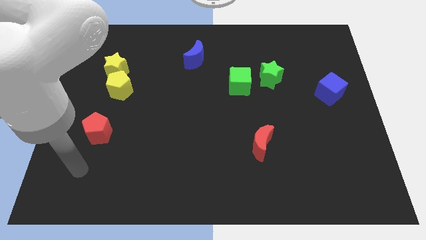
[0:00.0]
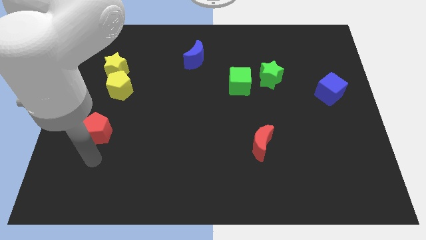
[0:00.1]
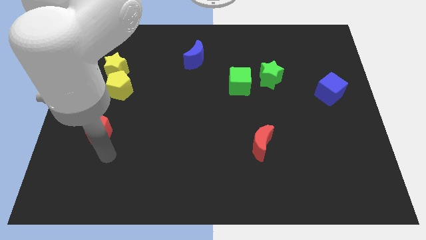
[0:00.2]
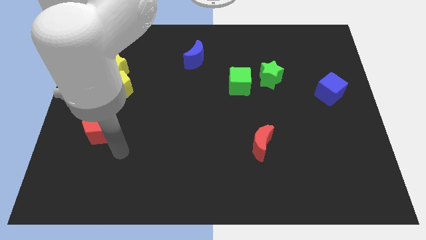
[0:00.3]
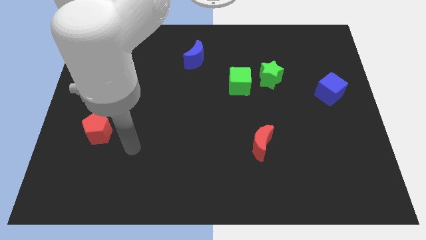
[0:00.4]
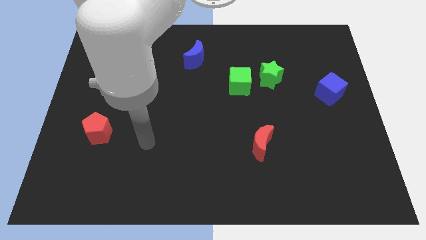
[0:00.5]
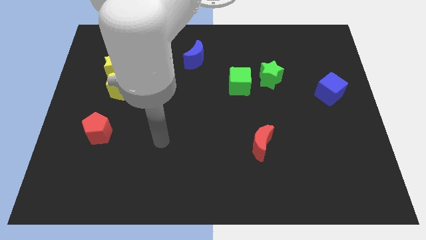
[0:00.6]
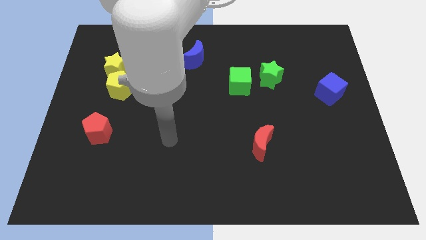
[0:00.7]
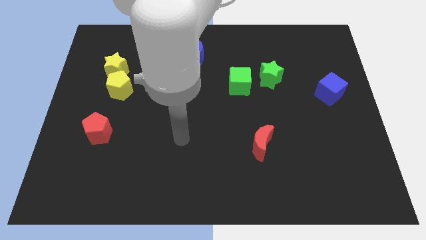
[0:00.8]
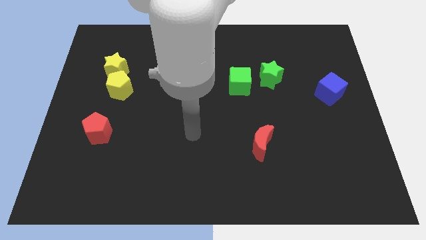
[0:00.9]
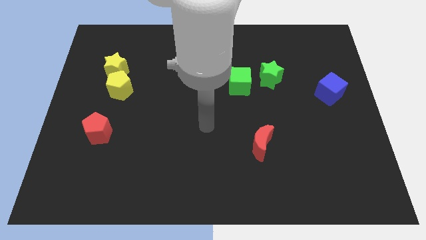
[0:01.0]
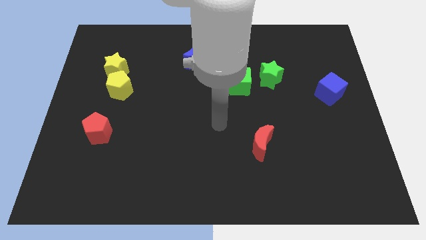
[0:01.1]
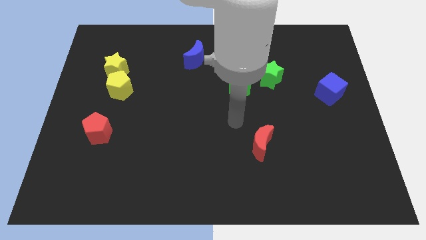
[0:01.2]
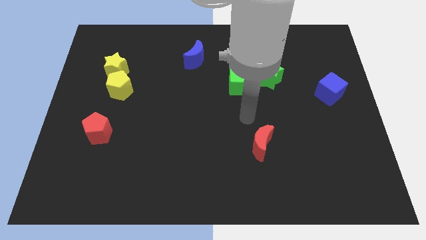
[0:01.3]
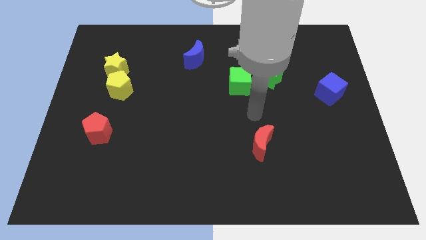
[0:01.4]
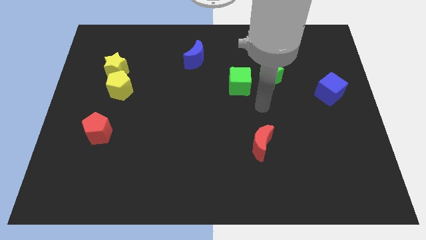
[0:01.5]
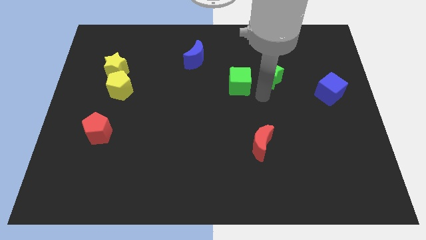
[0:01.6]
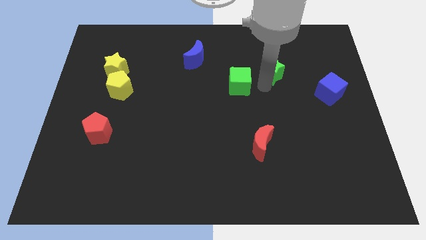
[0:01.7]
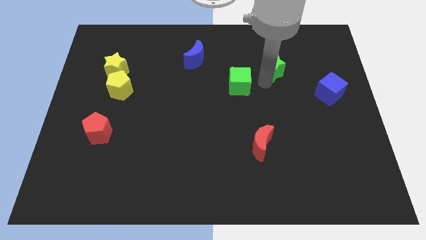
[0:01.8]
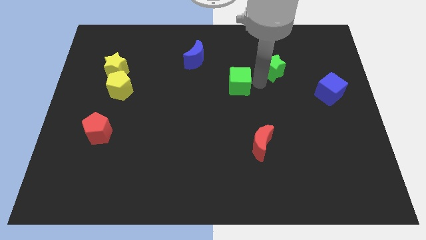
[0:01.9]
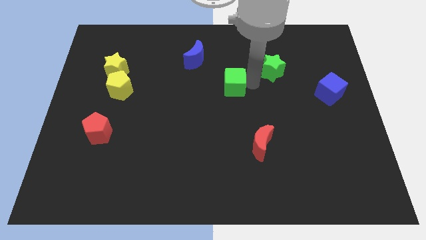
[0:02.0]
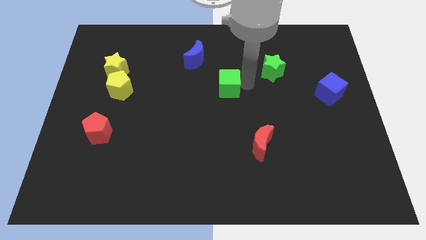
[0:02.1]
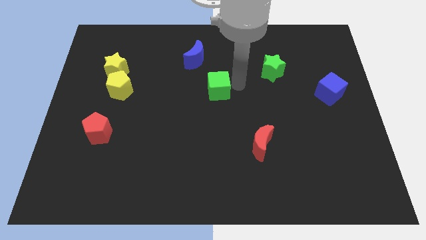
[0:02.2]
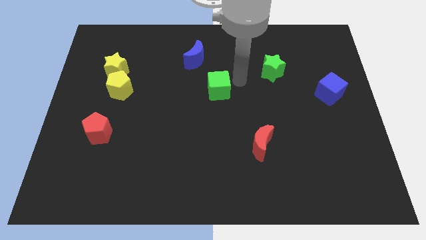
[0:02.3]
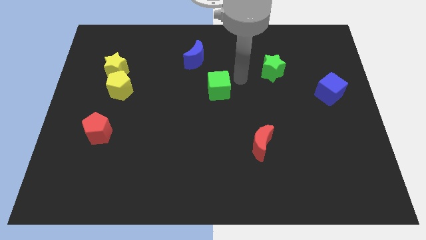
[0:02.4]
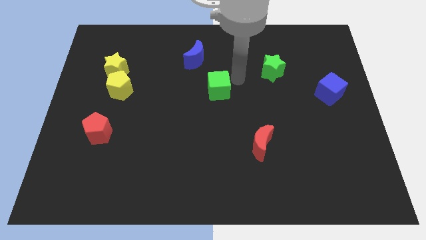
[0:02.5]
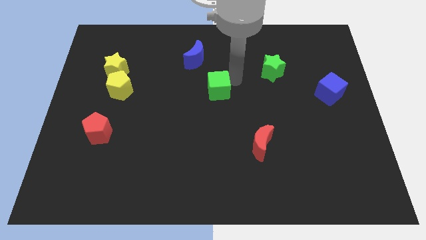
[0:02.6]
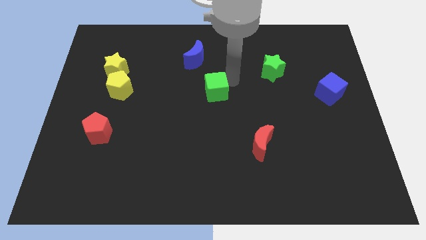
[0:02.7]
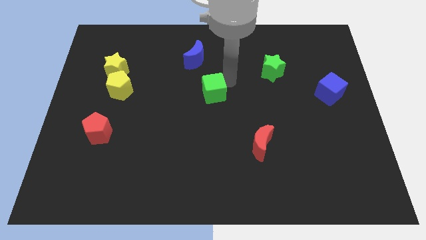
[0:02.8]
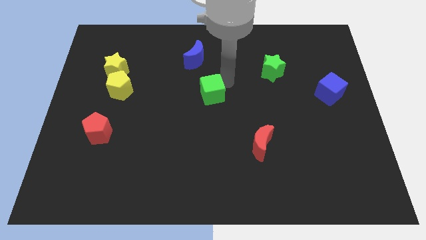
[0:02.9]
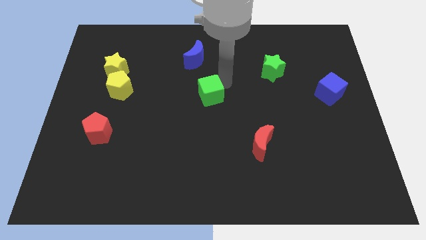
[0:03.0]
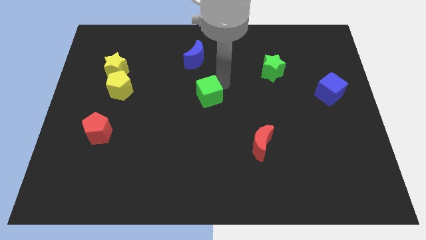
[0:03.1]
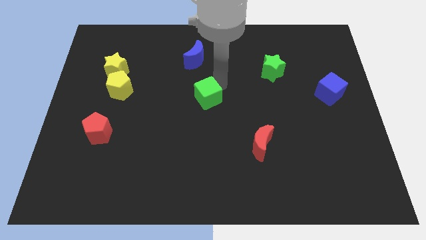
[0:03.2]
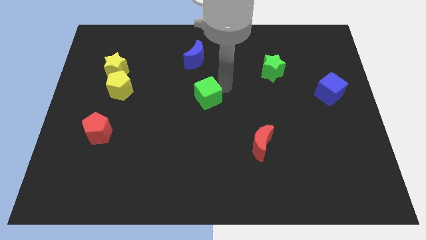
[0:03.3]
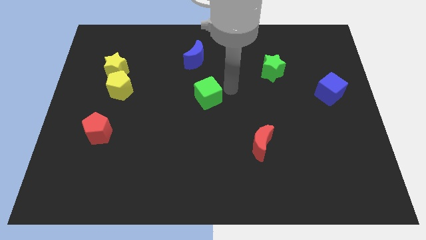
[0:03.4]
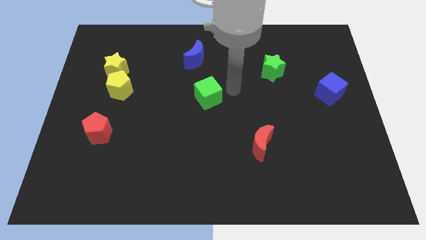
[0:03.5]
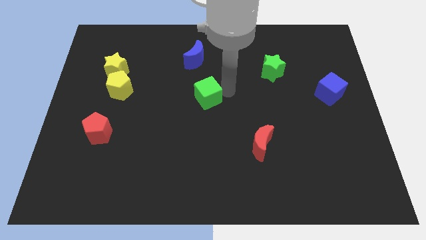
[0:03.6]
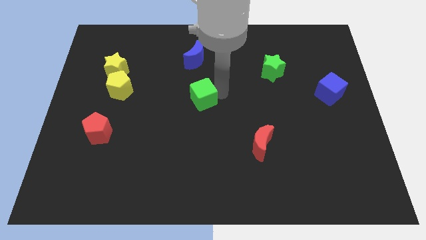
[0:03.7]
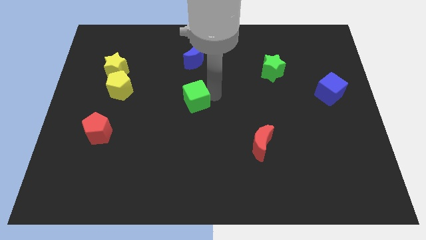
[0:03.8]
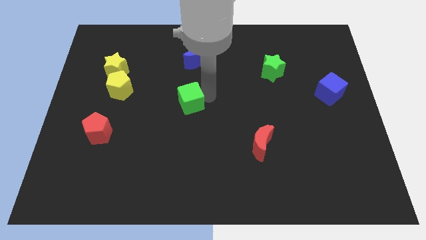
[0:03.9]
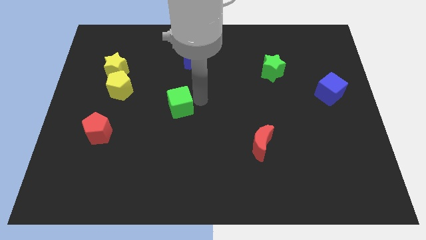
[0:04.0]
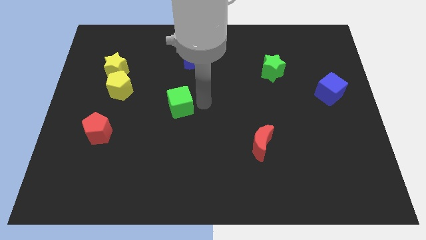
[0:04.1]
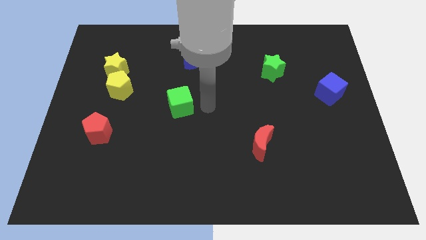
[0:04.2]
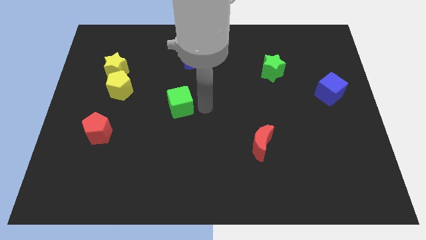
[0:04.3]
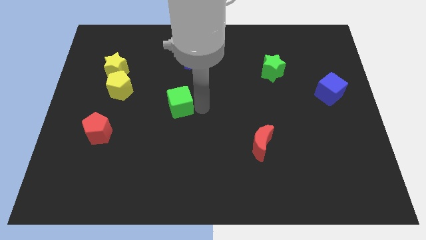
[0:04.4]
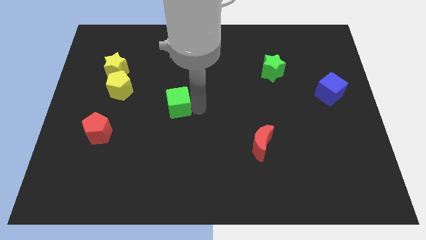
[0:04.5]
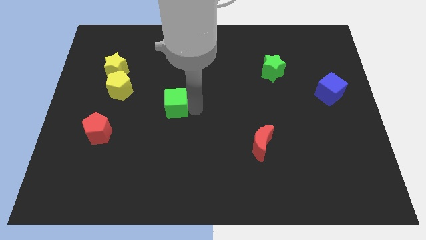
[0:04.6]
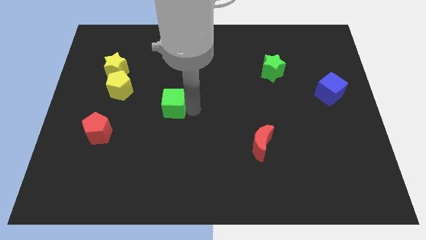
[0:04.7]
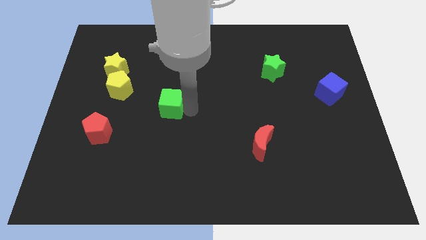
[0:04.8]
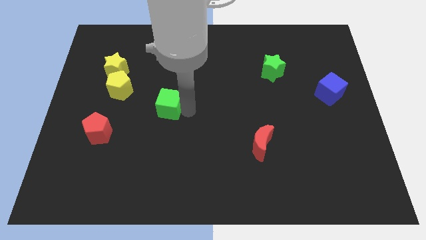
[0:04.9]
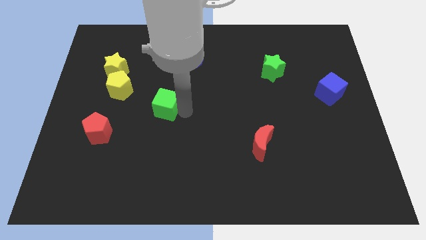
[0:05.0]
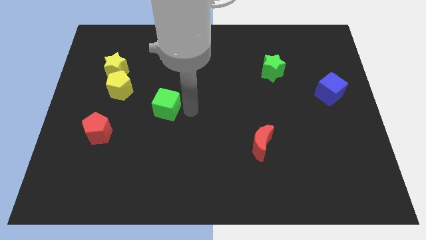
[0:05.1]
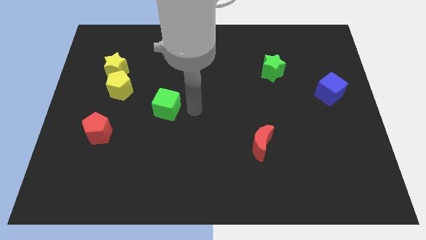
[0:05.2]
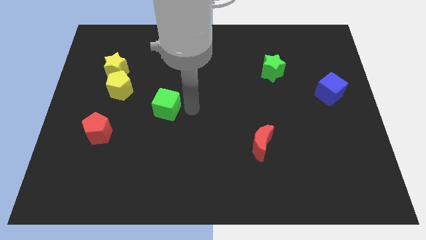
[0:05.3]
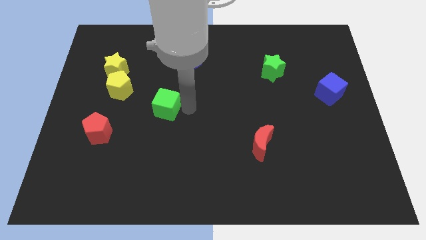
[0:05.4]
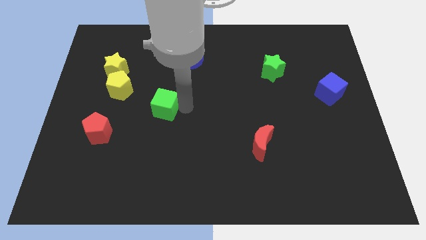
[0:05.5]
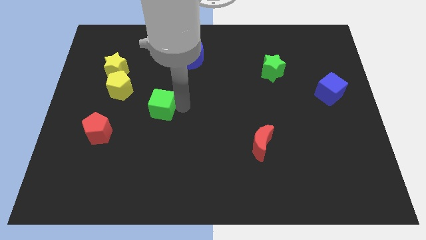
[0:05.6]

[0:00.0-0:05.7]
slide the green cube diagonally down and to the right of the yellow pentagon

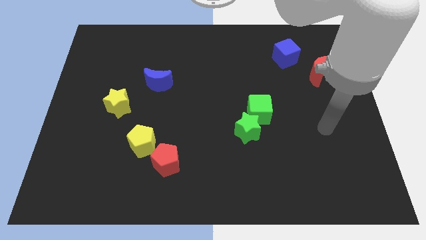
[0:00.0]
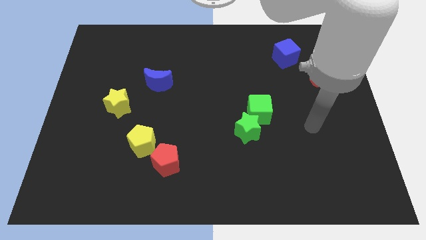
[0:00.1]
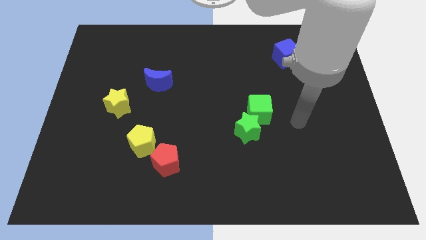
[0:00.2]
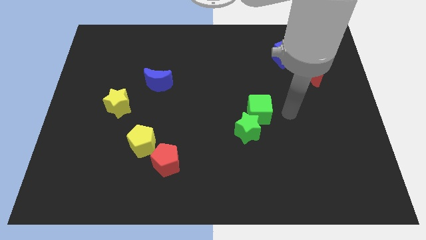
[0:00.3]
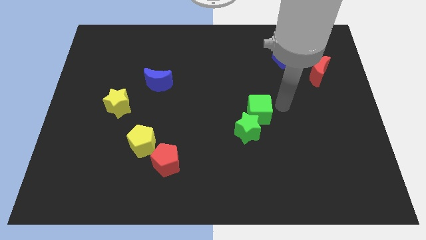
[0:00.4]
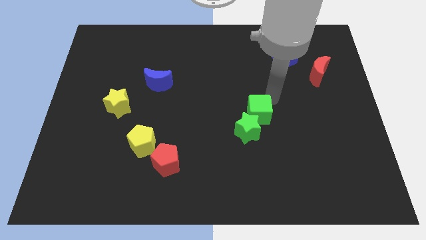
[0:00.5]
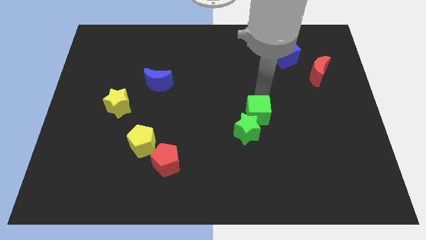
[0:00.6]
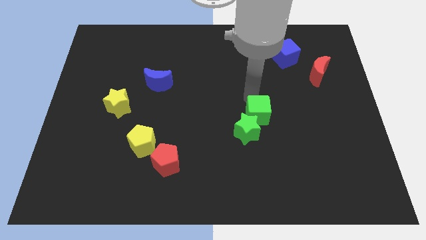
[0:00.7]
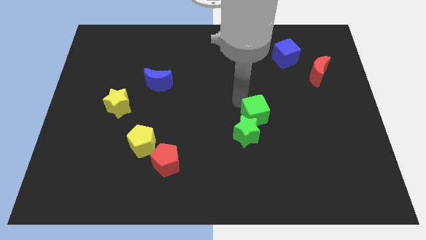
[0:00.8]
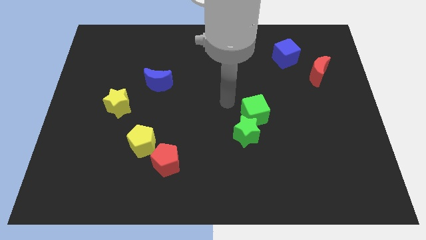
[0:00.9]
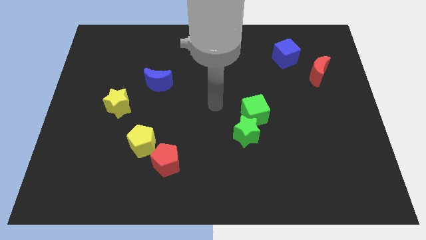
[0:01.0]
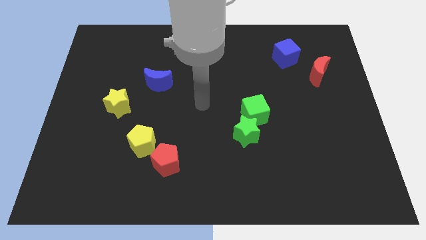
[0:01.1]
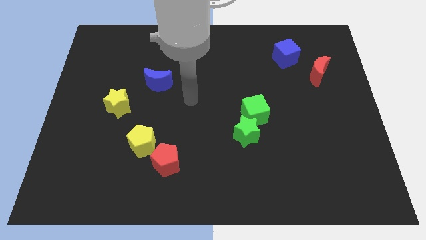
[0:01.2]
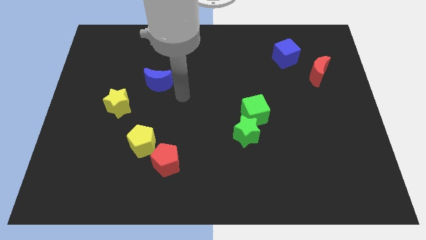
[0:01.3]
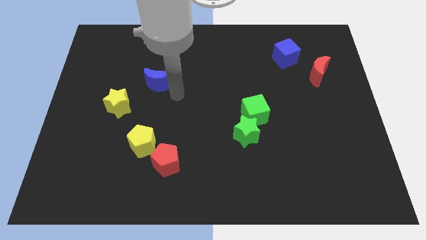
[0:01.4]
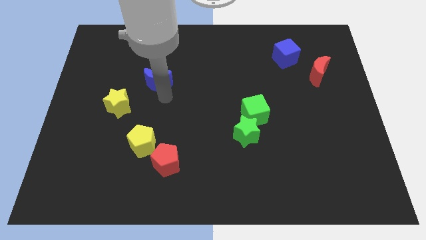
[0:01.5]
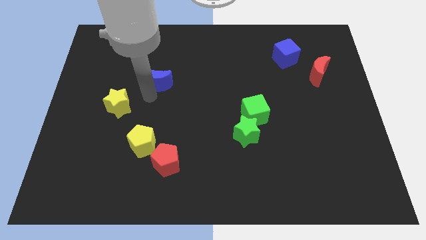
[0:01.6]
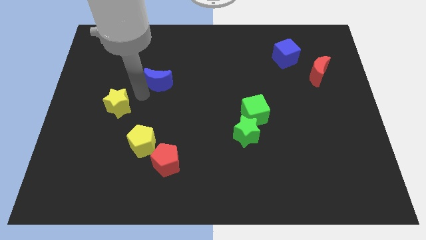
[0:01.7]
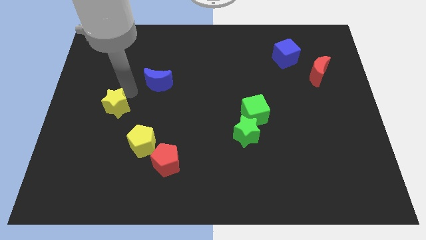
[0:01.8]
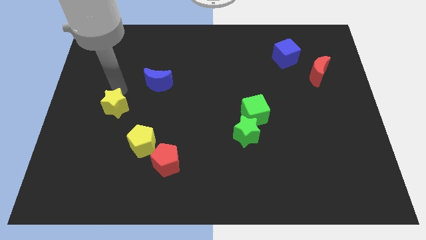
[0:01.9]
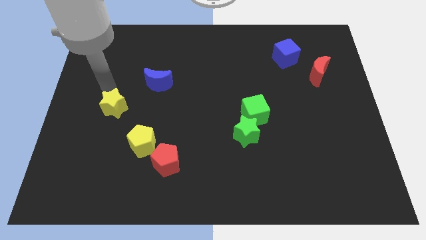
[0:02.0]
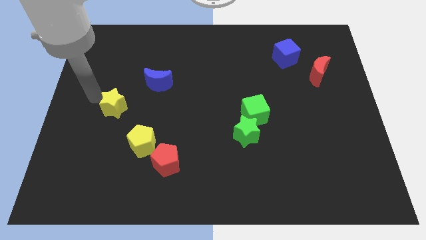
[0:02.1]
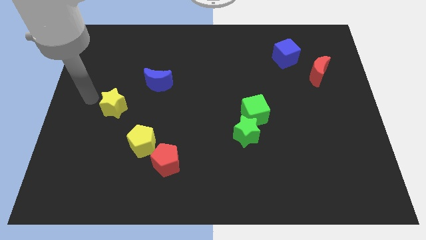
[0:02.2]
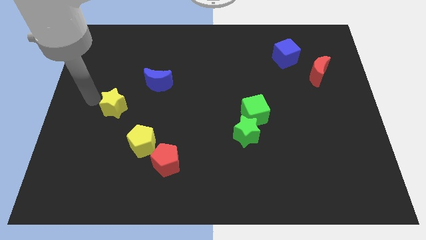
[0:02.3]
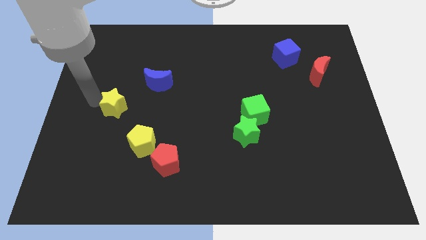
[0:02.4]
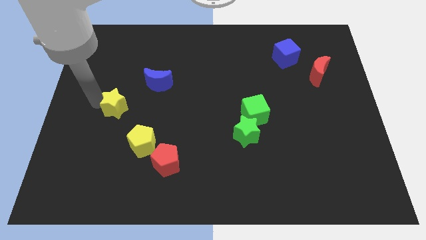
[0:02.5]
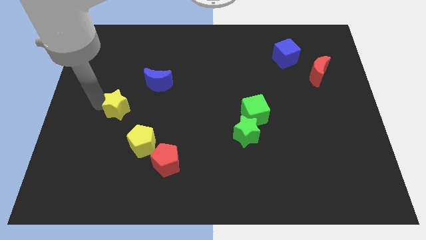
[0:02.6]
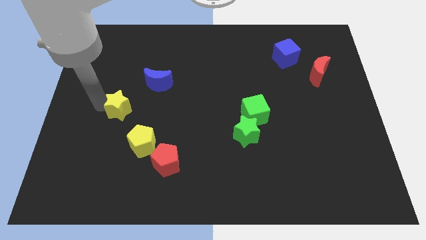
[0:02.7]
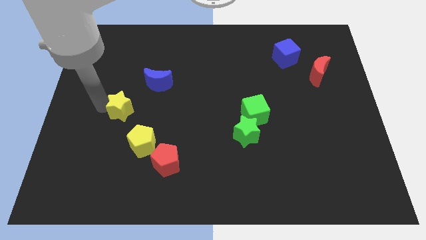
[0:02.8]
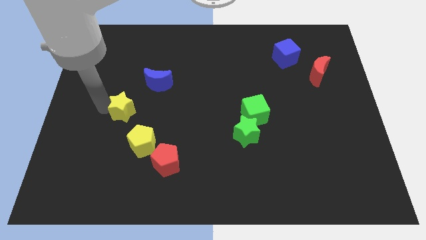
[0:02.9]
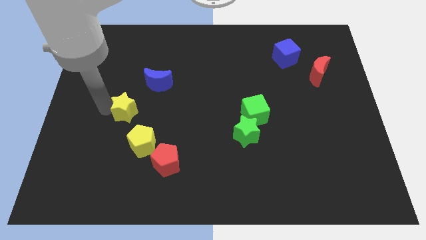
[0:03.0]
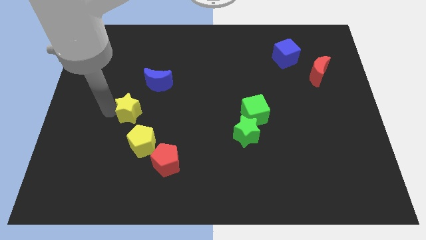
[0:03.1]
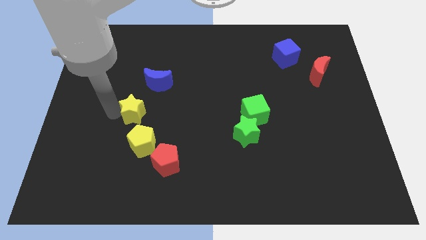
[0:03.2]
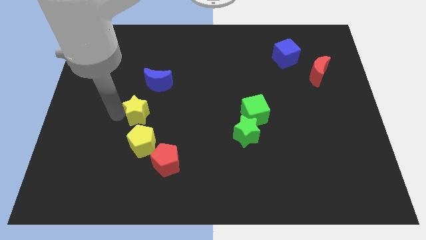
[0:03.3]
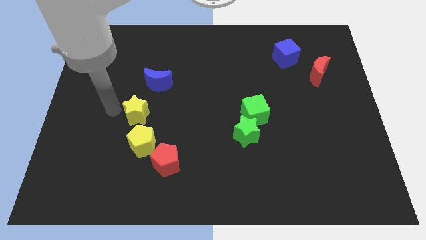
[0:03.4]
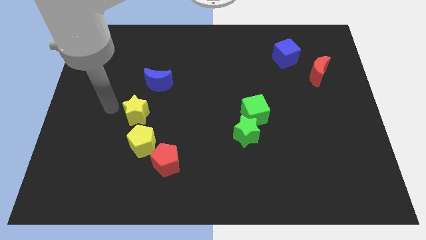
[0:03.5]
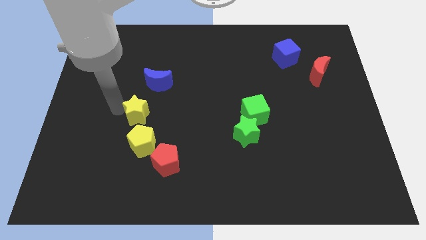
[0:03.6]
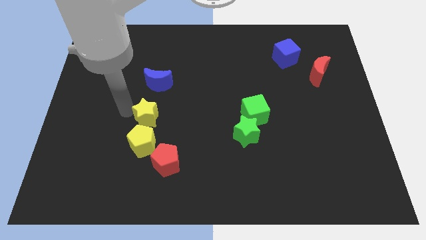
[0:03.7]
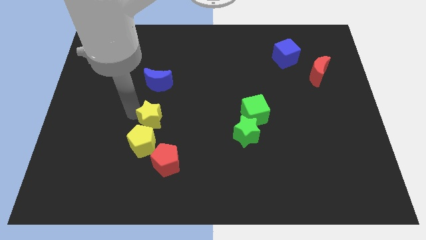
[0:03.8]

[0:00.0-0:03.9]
put the yellow star to the top side of the red pentagon
